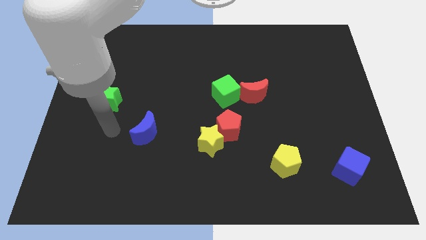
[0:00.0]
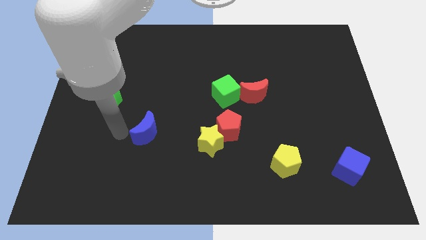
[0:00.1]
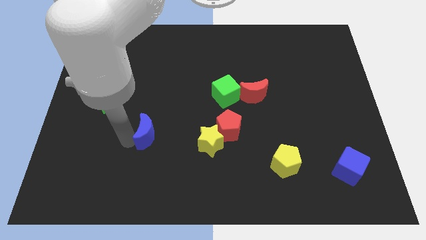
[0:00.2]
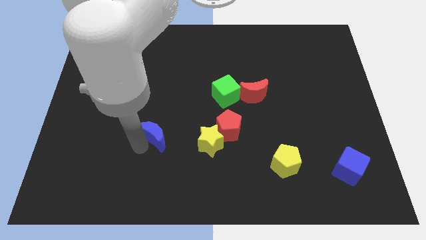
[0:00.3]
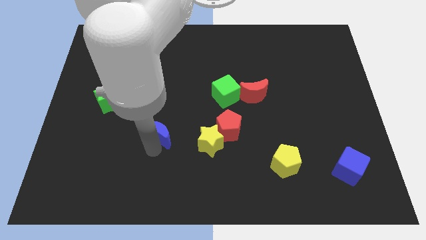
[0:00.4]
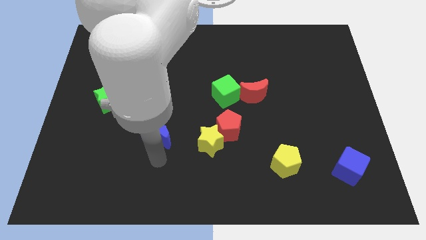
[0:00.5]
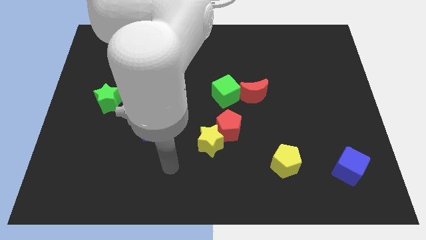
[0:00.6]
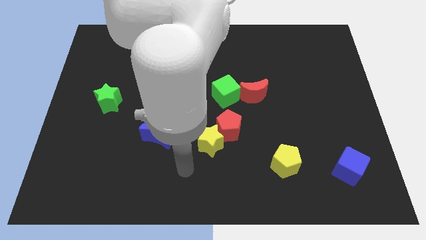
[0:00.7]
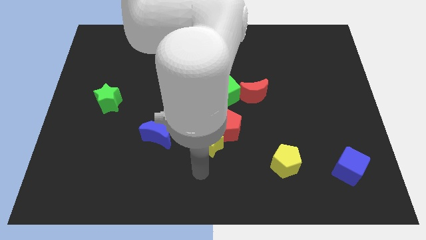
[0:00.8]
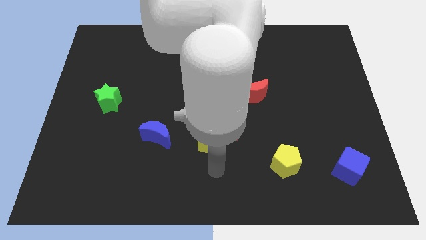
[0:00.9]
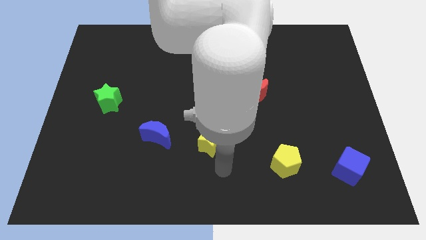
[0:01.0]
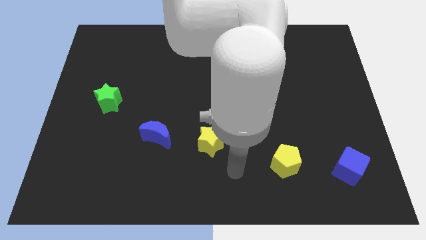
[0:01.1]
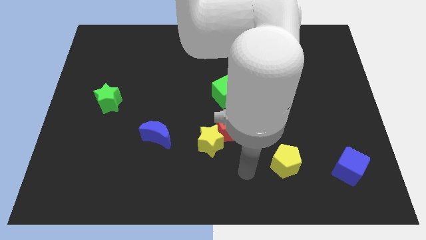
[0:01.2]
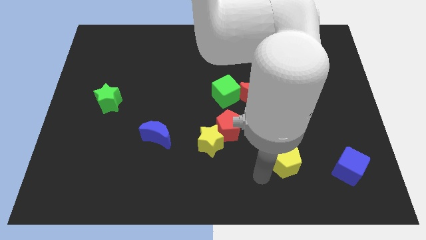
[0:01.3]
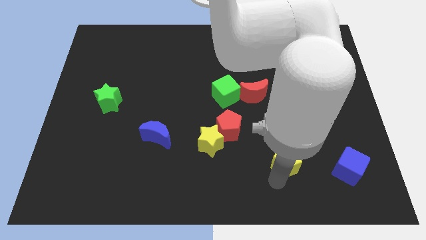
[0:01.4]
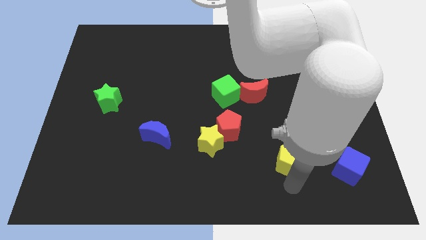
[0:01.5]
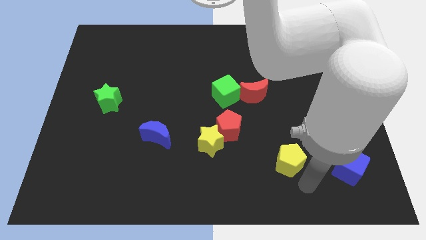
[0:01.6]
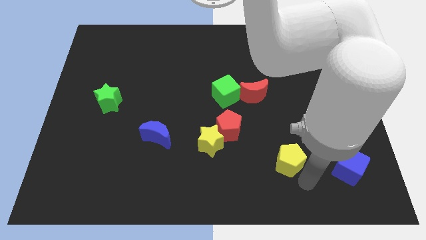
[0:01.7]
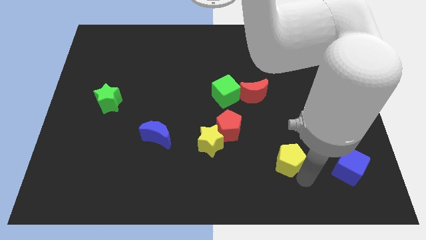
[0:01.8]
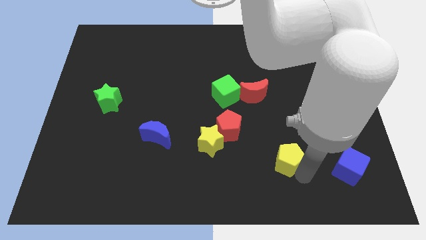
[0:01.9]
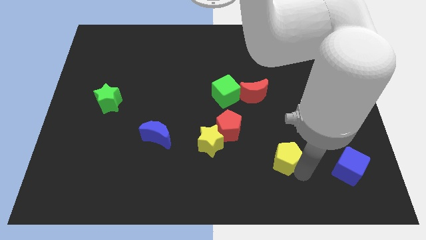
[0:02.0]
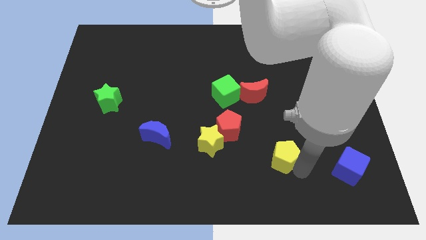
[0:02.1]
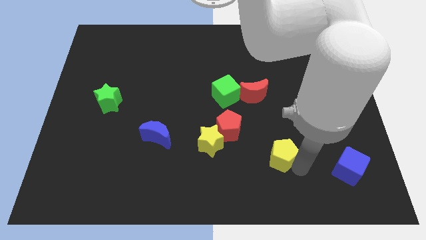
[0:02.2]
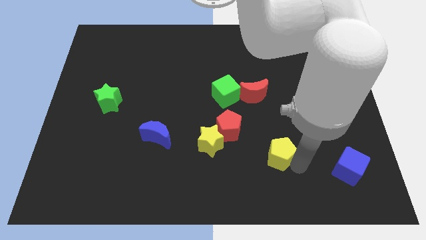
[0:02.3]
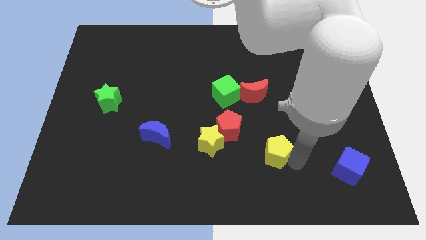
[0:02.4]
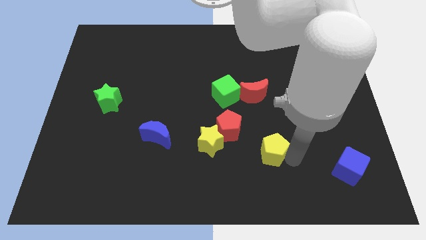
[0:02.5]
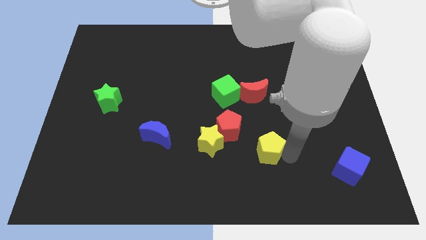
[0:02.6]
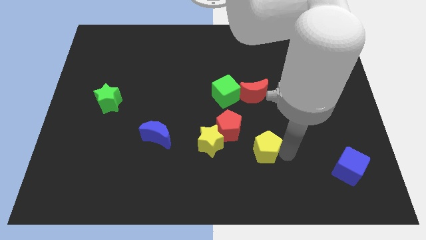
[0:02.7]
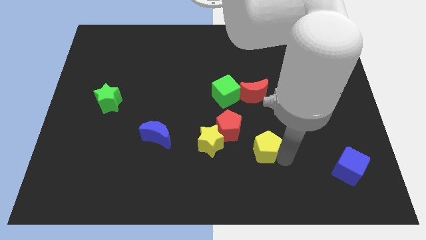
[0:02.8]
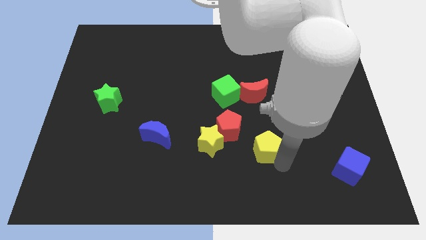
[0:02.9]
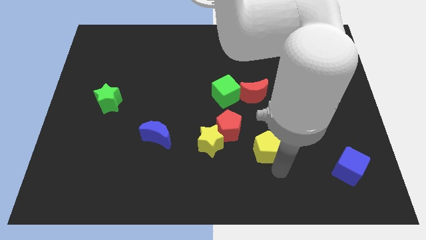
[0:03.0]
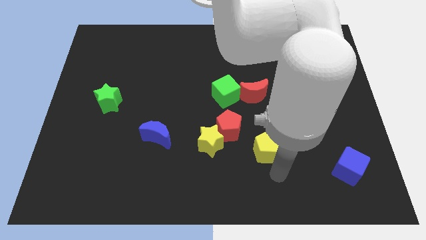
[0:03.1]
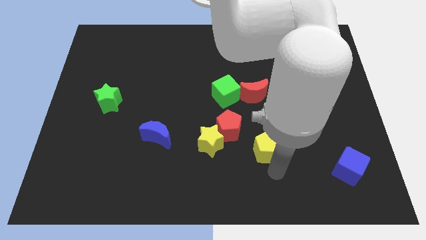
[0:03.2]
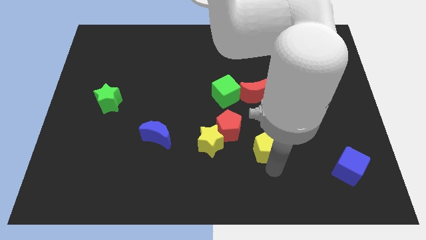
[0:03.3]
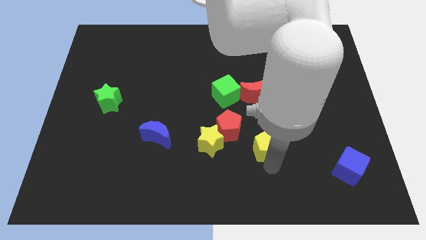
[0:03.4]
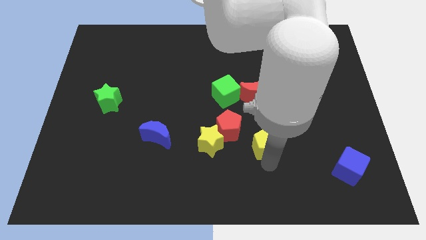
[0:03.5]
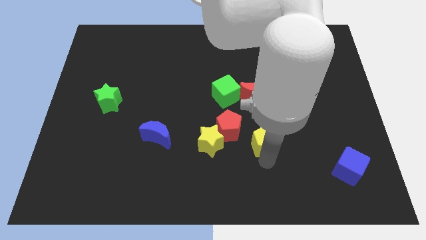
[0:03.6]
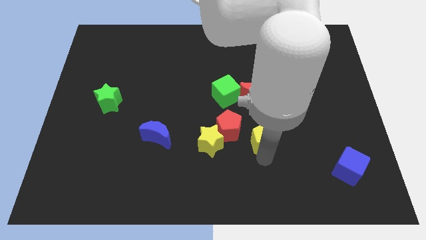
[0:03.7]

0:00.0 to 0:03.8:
slightly move the yellow pentagon upwards and to the left

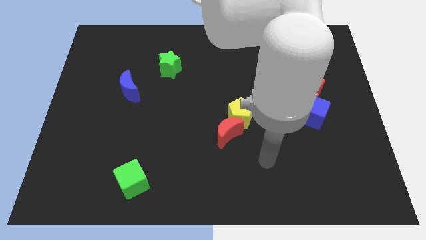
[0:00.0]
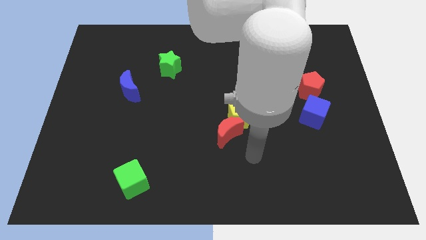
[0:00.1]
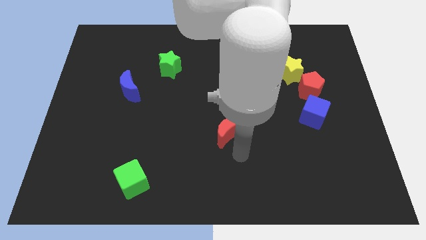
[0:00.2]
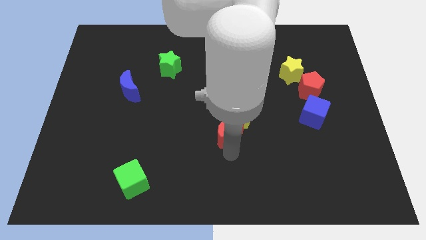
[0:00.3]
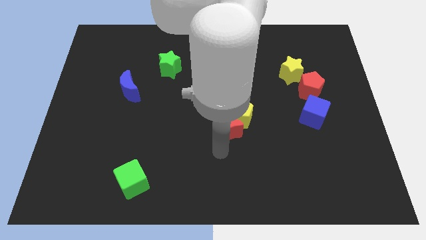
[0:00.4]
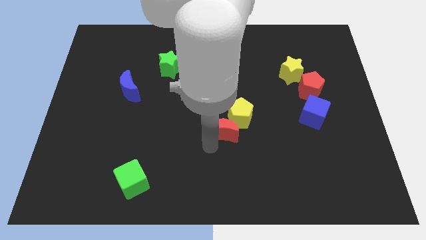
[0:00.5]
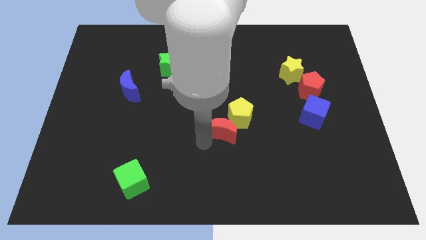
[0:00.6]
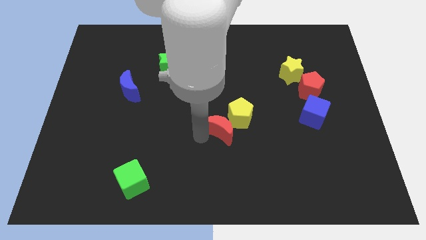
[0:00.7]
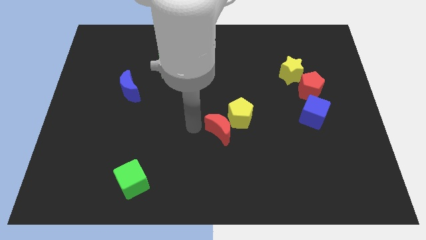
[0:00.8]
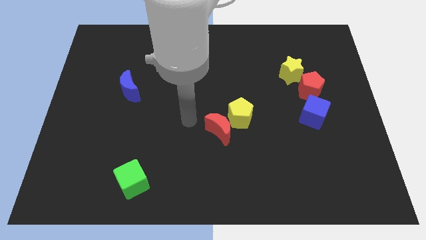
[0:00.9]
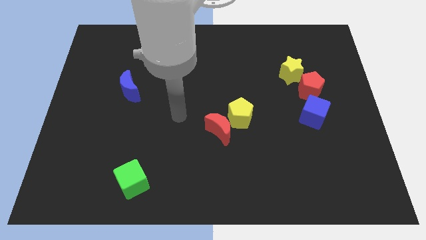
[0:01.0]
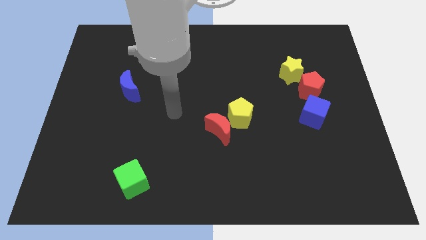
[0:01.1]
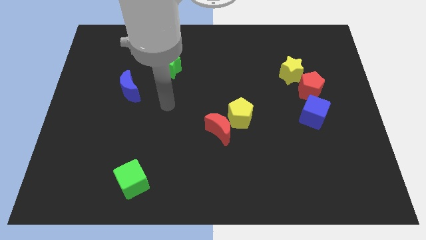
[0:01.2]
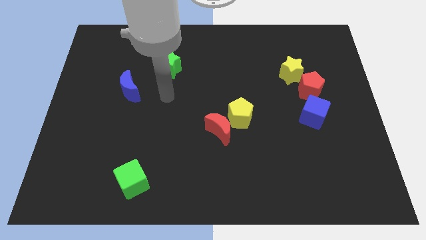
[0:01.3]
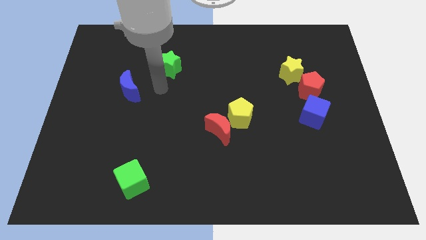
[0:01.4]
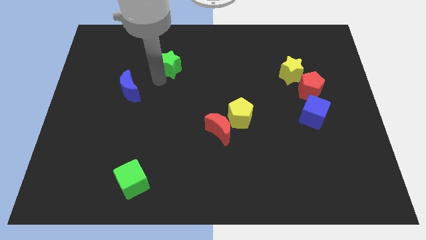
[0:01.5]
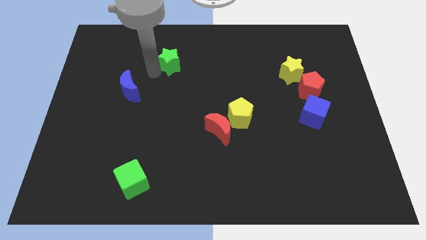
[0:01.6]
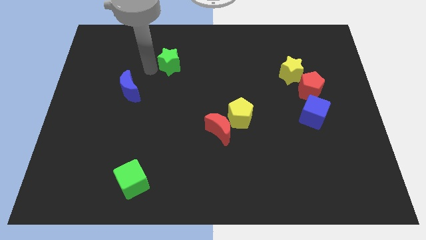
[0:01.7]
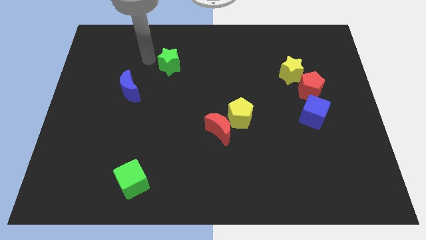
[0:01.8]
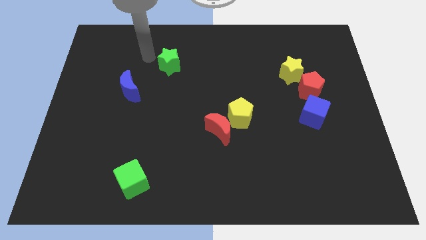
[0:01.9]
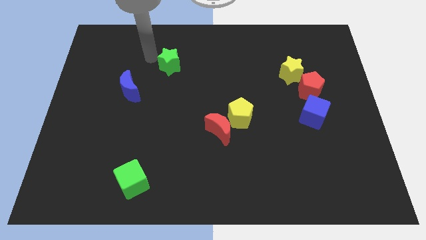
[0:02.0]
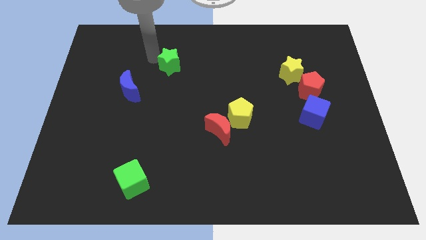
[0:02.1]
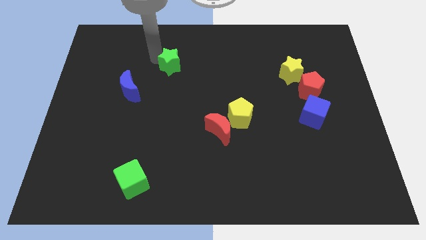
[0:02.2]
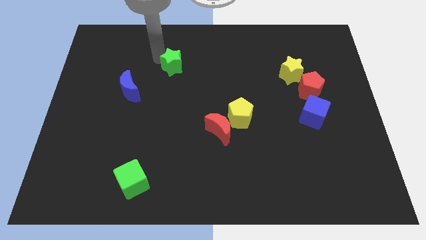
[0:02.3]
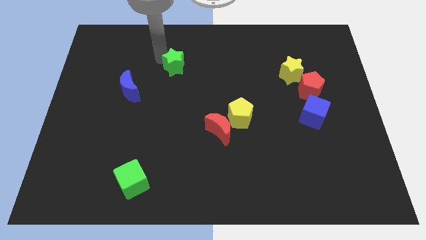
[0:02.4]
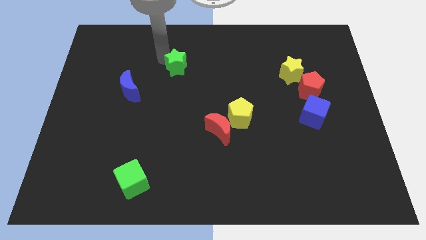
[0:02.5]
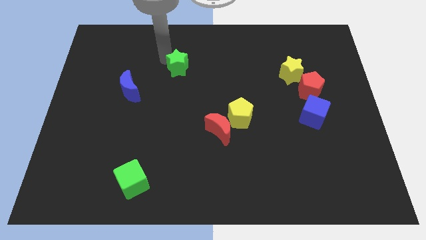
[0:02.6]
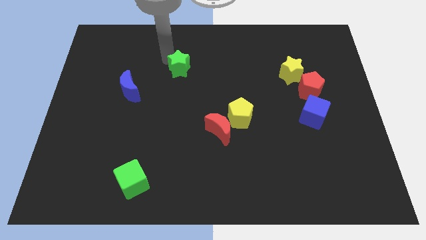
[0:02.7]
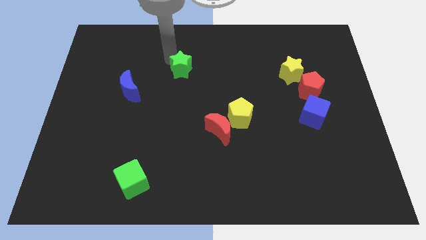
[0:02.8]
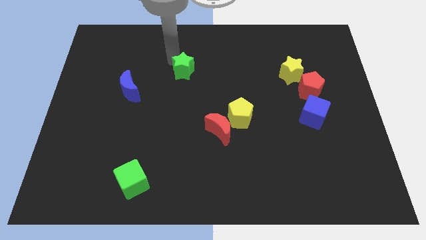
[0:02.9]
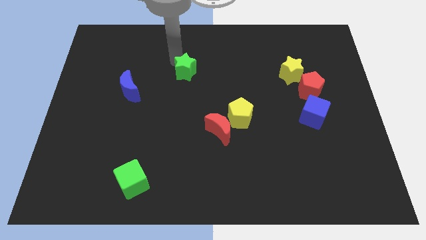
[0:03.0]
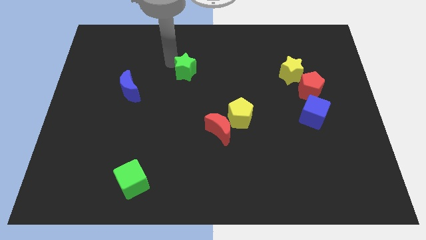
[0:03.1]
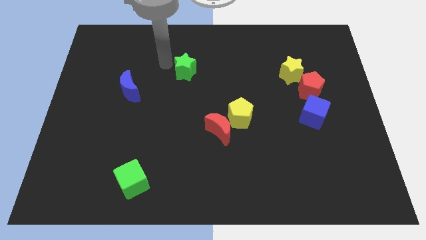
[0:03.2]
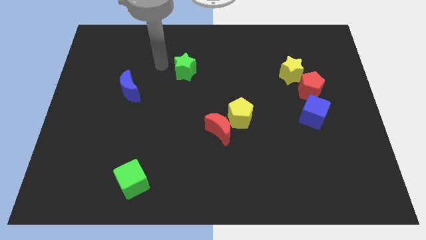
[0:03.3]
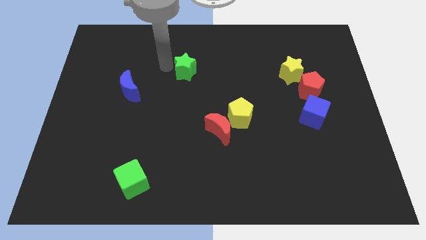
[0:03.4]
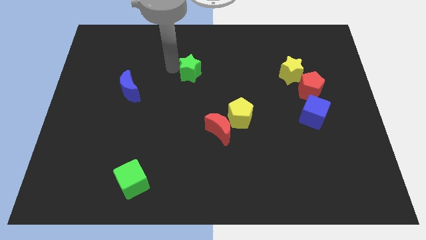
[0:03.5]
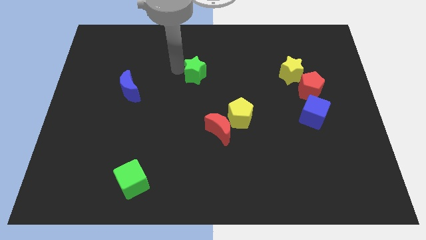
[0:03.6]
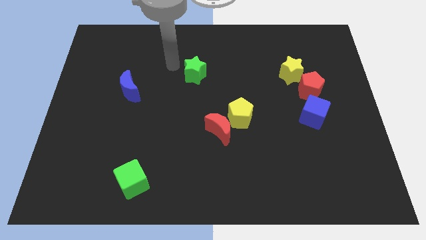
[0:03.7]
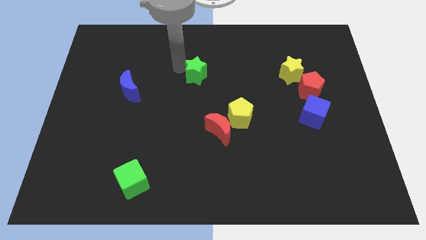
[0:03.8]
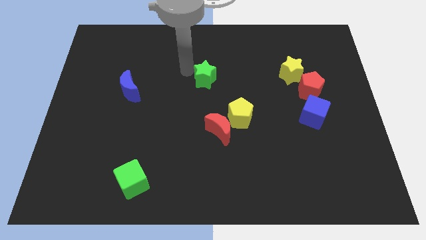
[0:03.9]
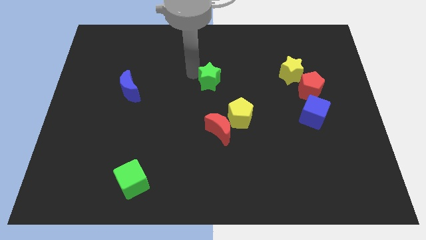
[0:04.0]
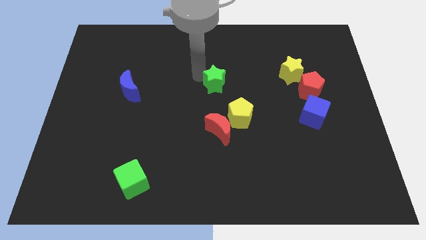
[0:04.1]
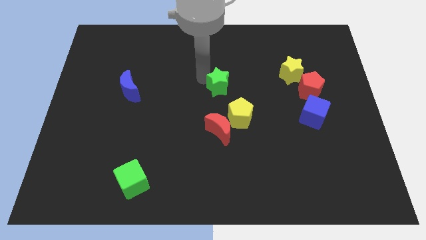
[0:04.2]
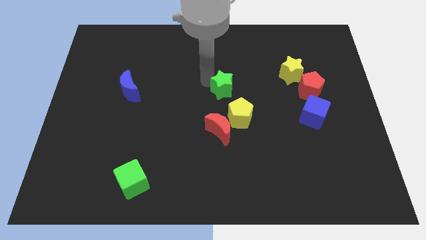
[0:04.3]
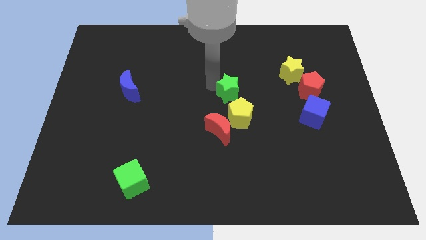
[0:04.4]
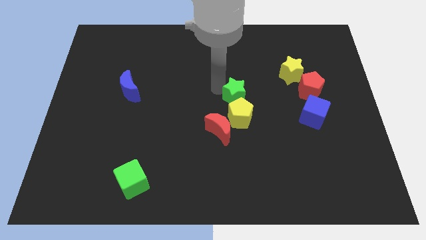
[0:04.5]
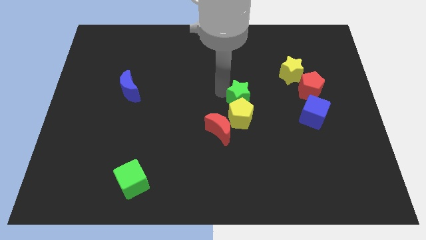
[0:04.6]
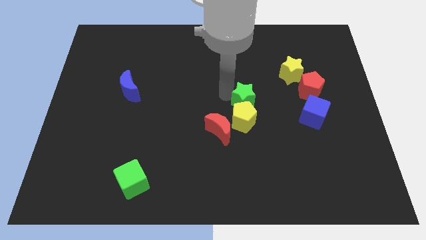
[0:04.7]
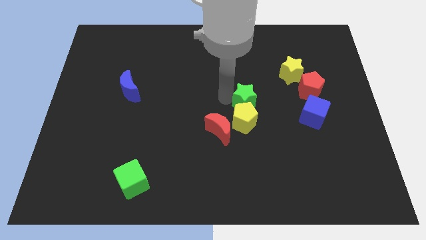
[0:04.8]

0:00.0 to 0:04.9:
slide the green star diagonally downwards and right
